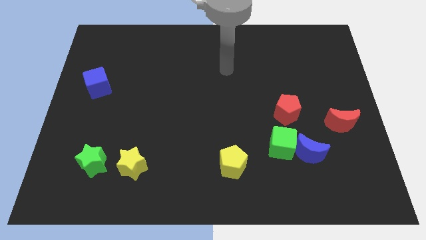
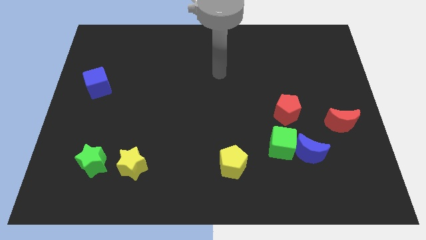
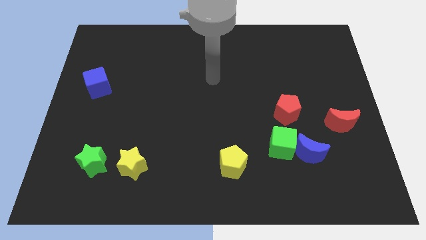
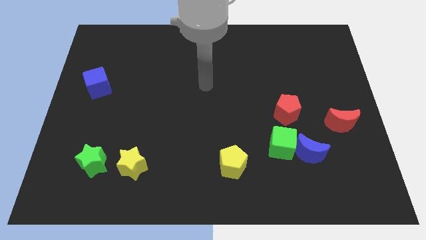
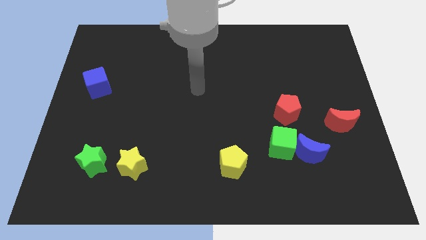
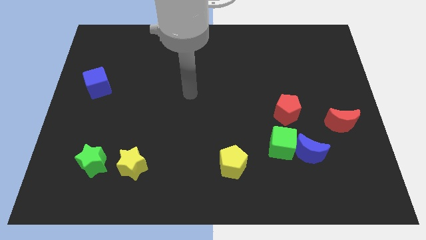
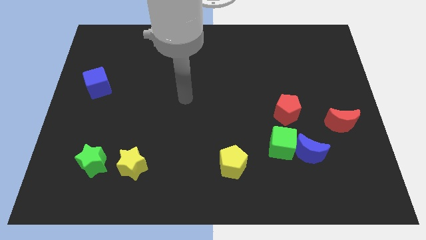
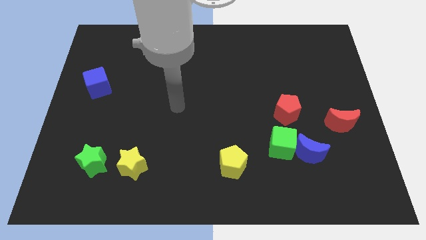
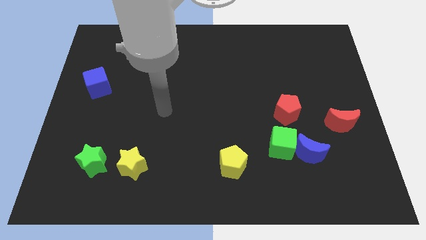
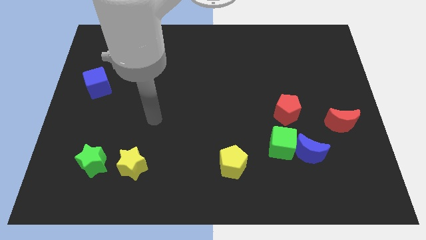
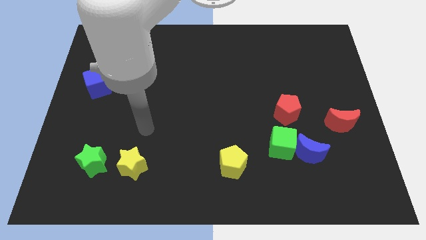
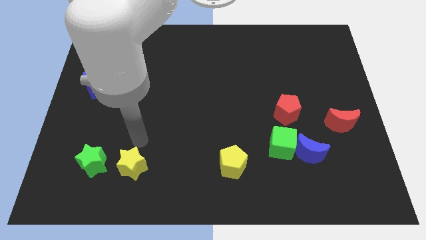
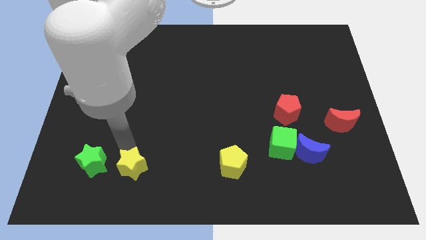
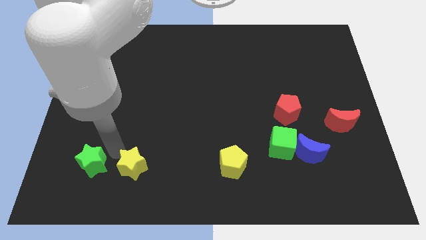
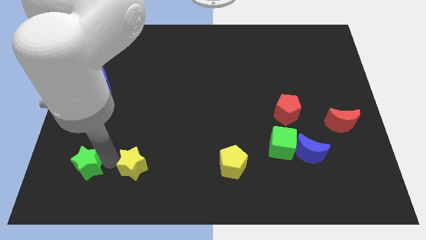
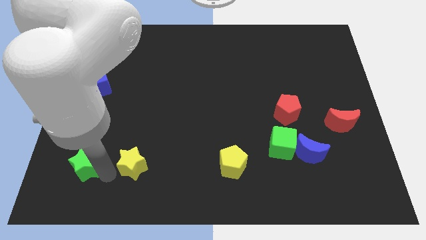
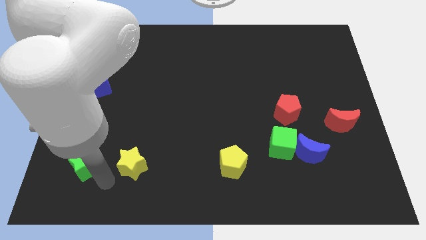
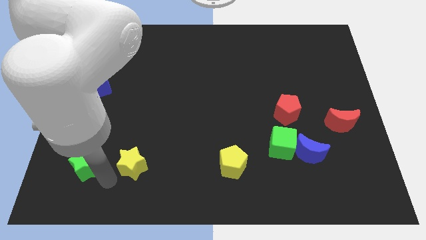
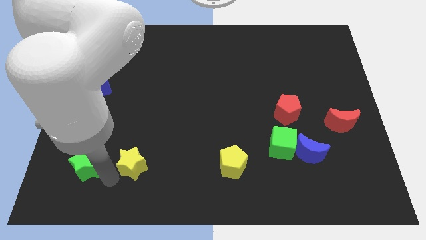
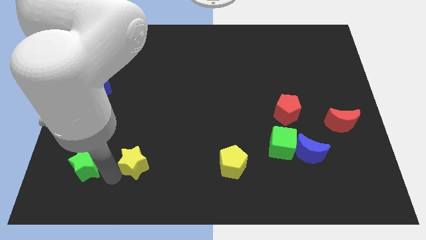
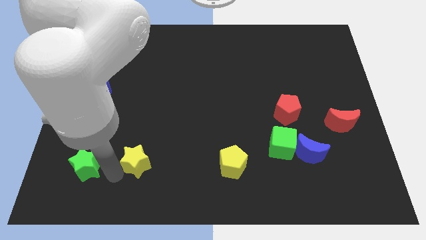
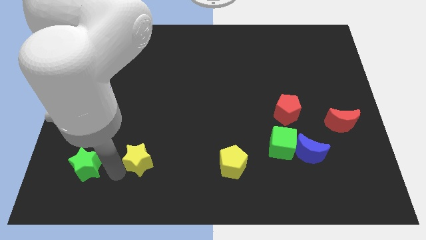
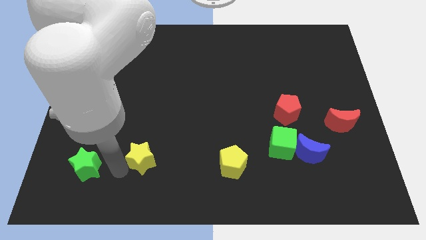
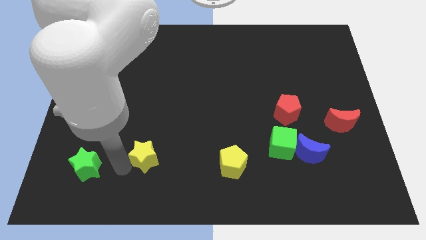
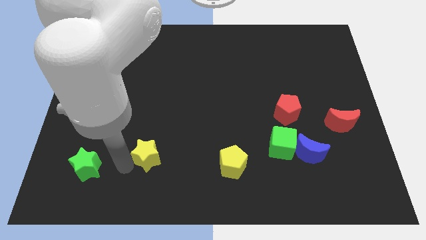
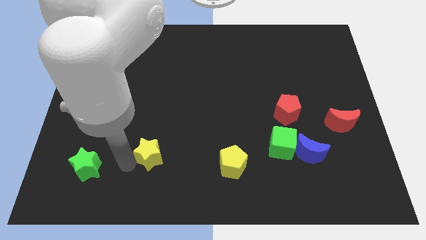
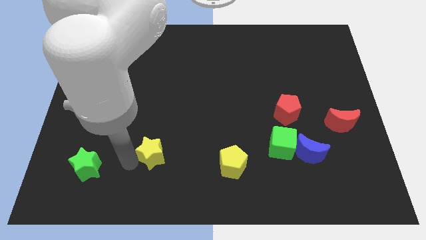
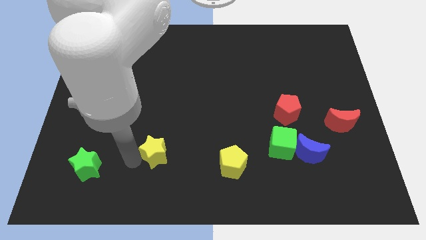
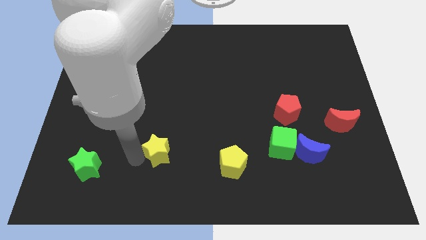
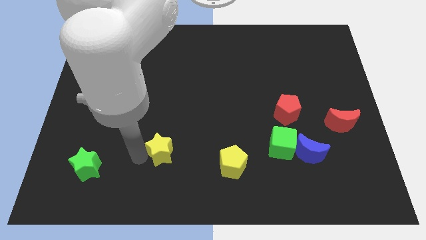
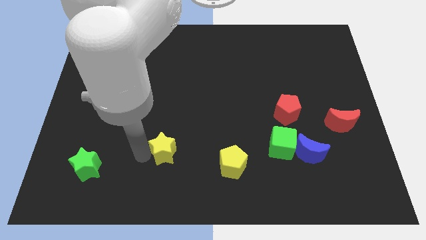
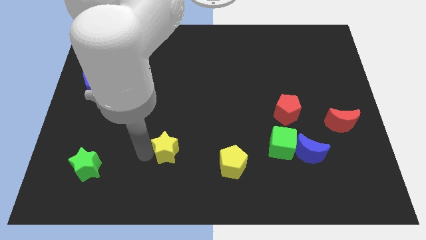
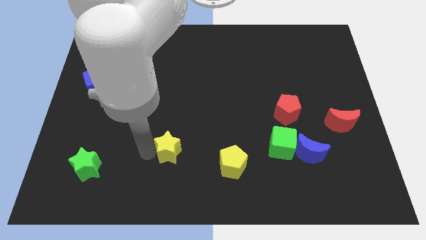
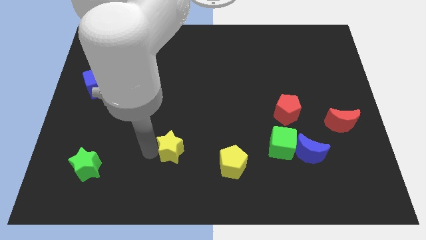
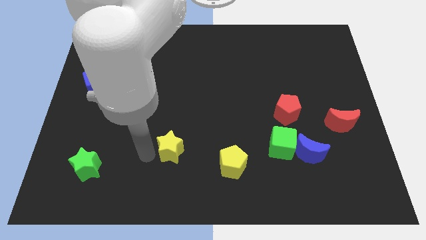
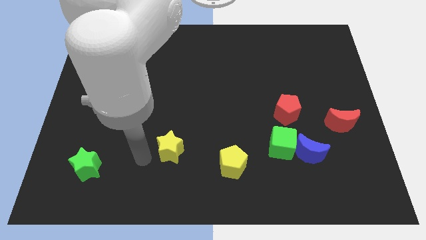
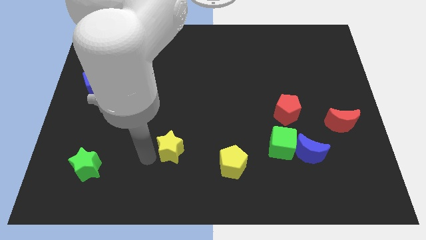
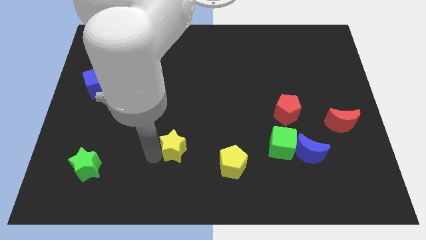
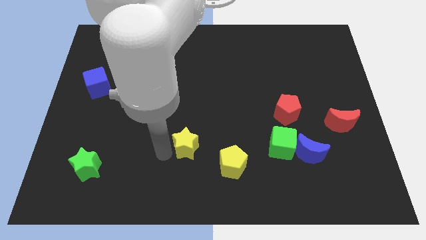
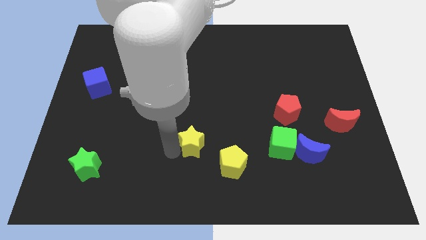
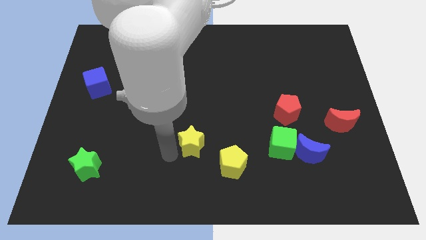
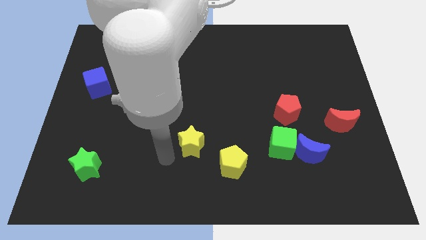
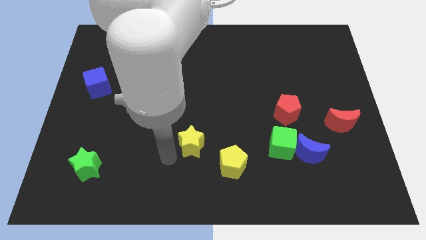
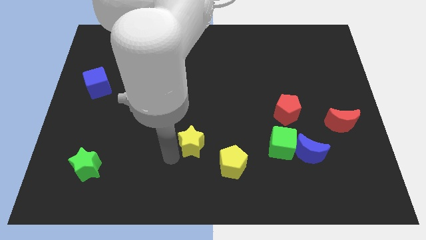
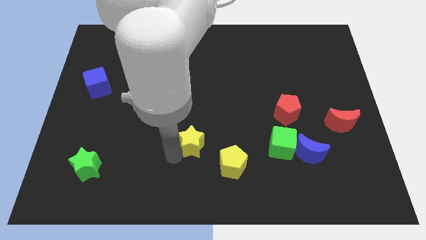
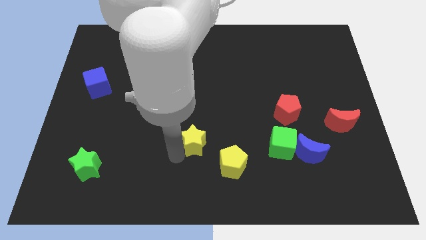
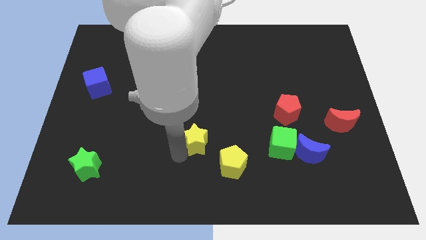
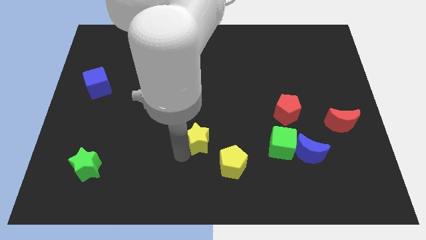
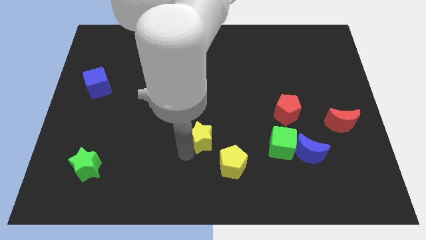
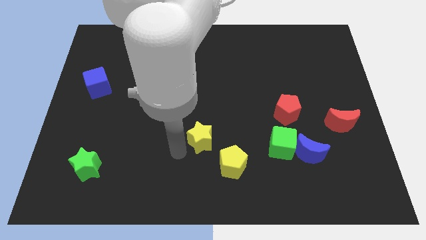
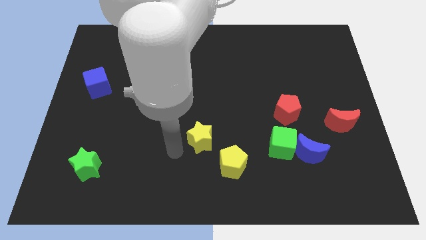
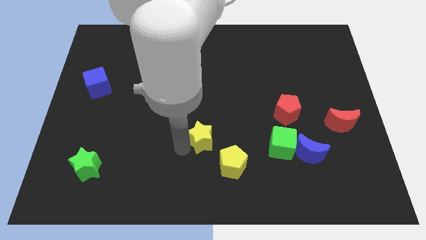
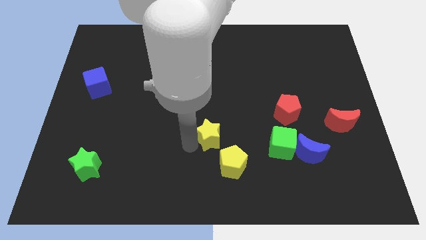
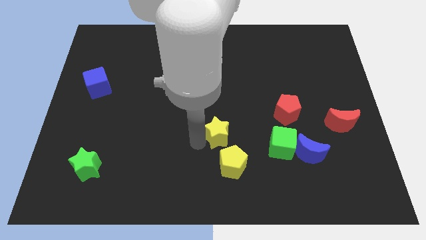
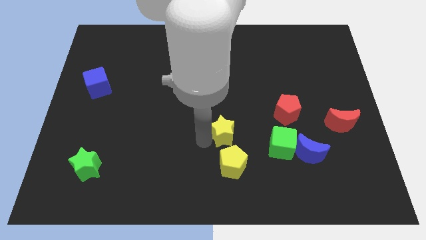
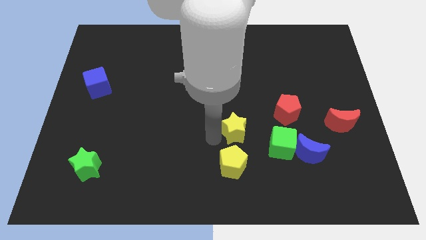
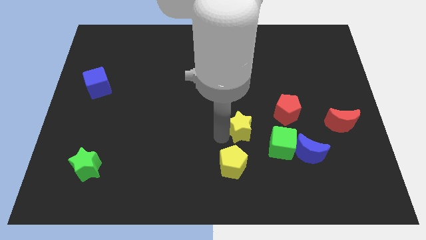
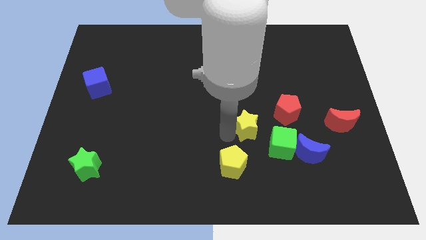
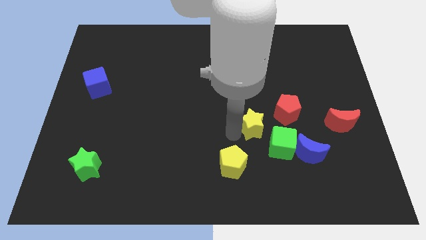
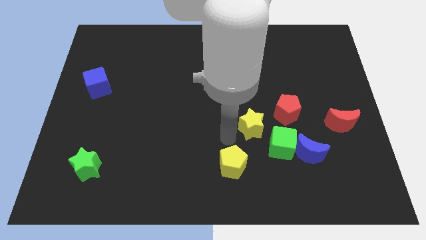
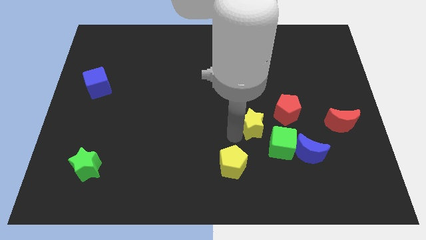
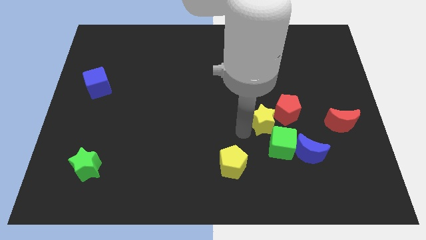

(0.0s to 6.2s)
put the yellow star to the red pentagon
